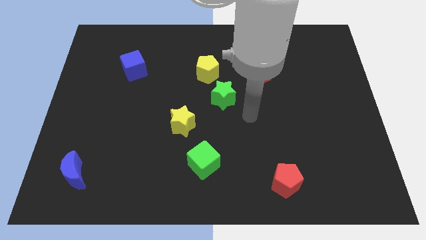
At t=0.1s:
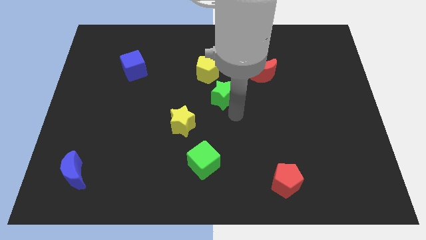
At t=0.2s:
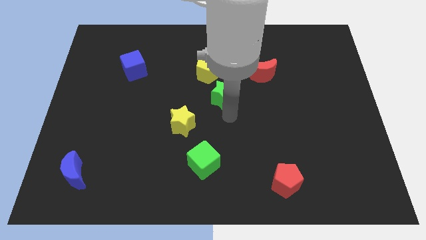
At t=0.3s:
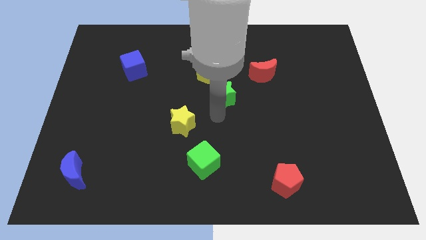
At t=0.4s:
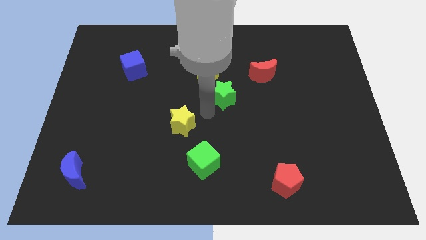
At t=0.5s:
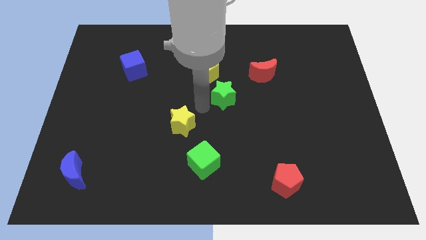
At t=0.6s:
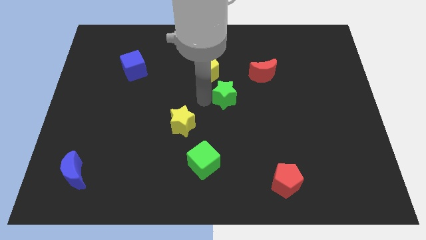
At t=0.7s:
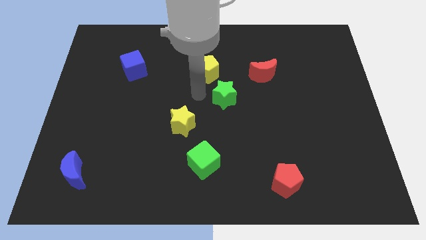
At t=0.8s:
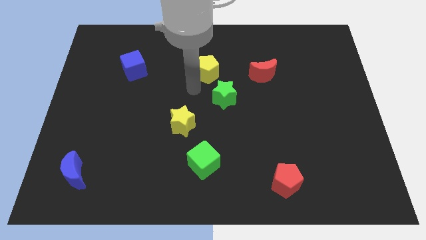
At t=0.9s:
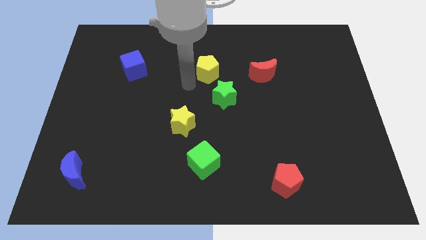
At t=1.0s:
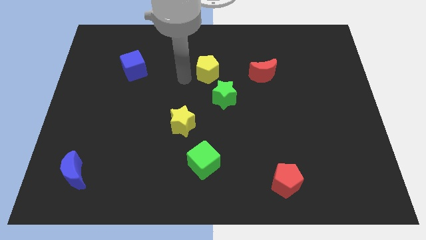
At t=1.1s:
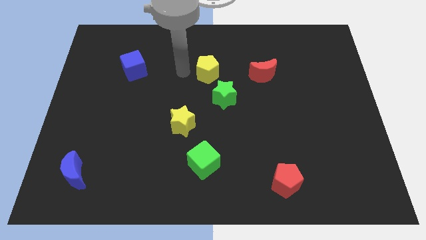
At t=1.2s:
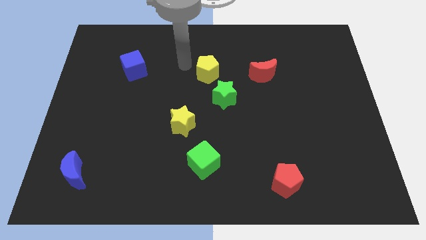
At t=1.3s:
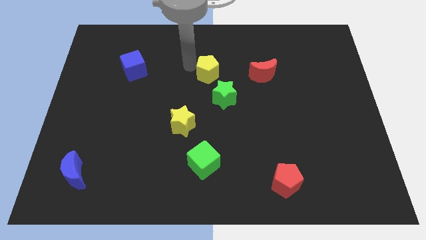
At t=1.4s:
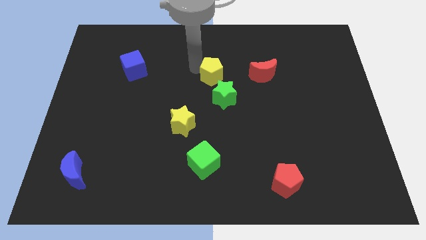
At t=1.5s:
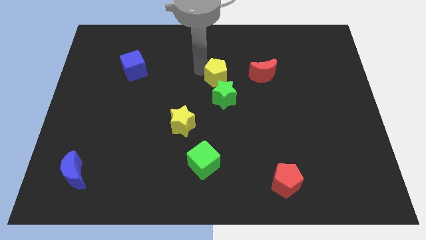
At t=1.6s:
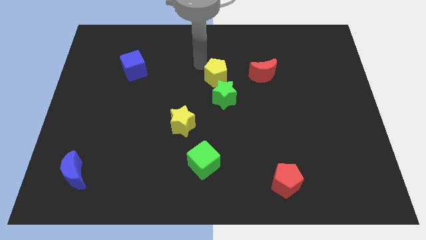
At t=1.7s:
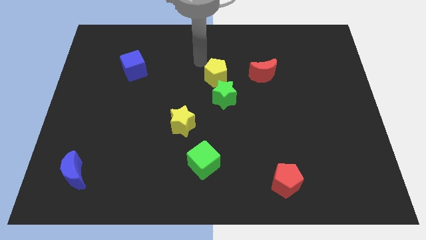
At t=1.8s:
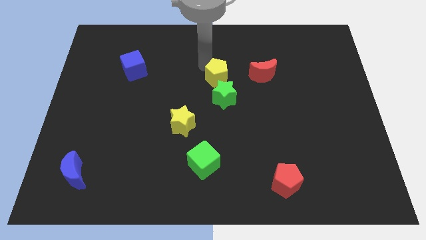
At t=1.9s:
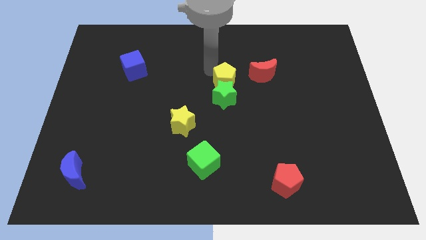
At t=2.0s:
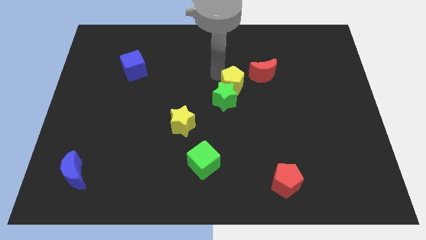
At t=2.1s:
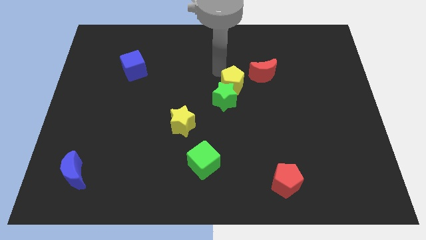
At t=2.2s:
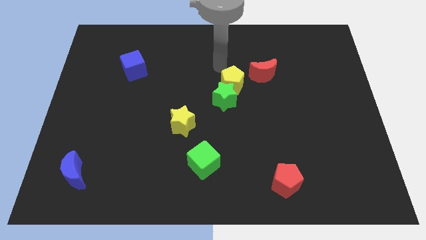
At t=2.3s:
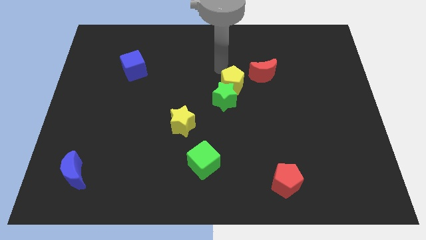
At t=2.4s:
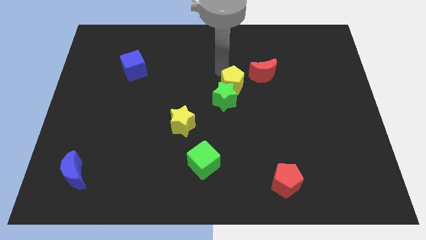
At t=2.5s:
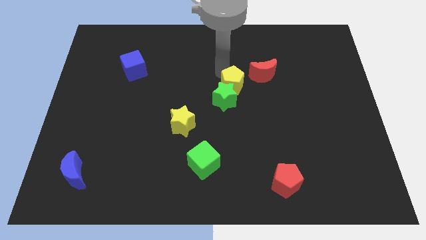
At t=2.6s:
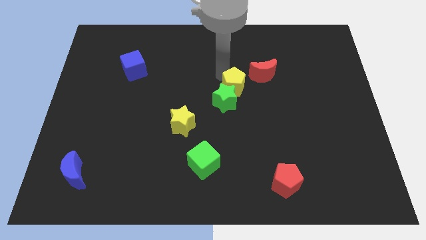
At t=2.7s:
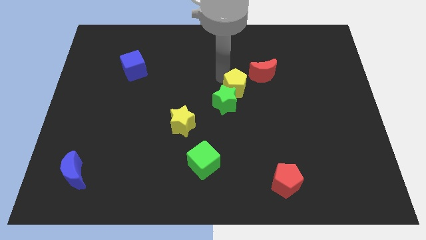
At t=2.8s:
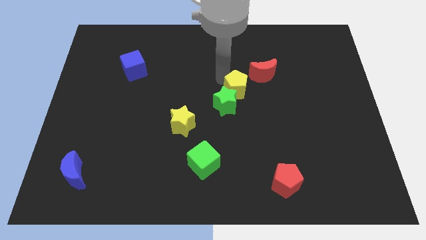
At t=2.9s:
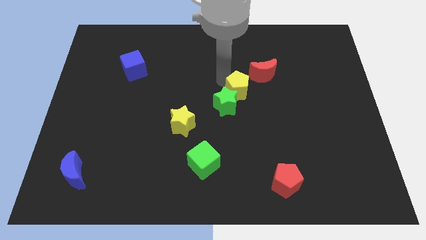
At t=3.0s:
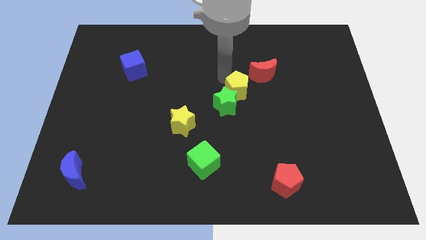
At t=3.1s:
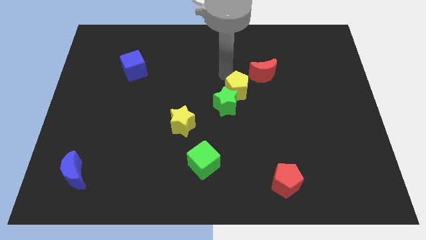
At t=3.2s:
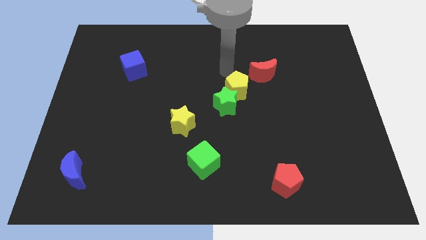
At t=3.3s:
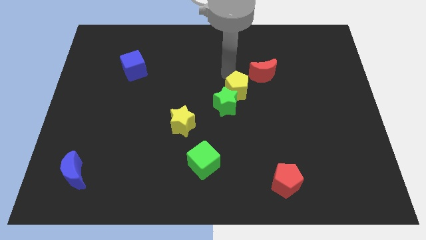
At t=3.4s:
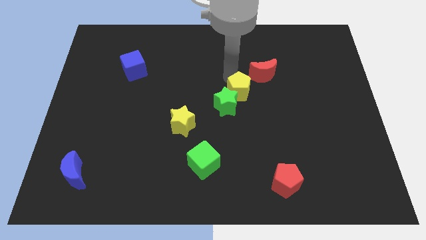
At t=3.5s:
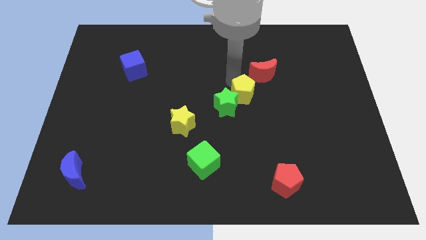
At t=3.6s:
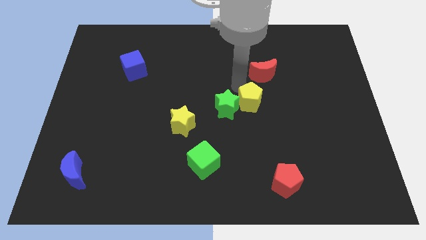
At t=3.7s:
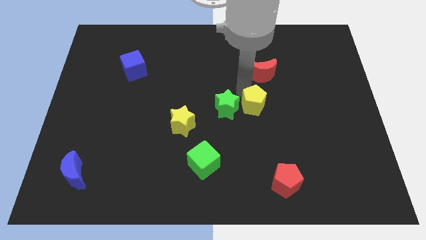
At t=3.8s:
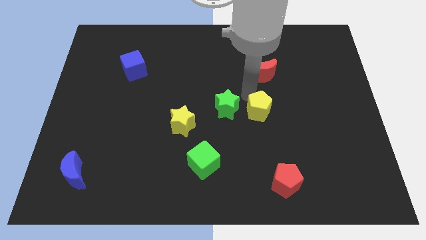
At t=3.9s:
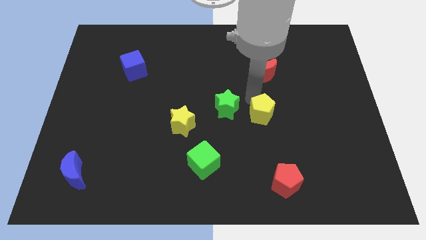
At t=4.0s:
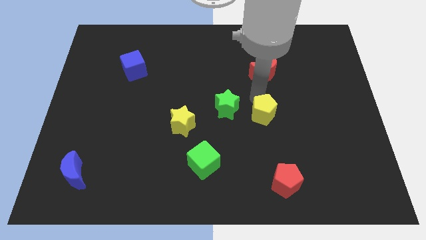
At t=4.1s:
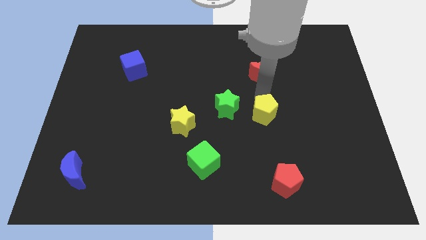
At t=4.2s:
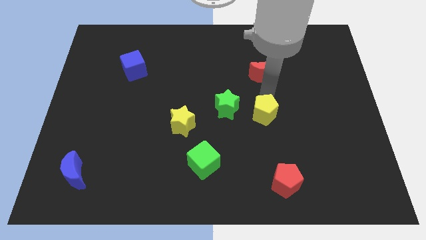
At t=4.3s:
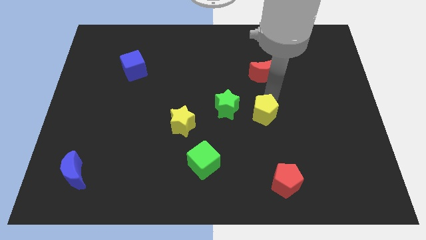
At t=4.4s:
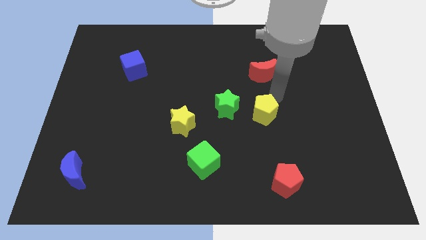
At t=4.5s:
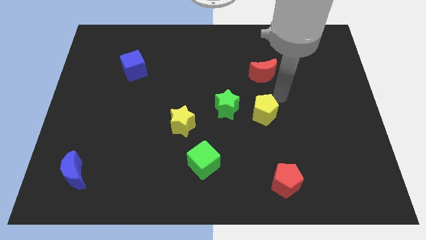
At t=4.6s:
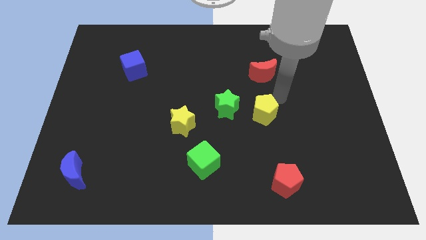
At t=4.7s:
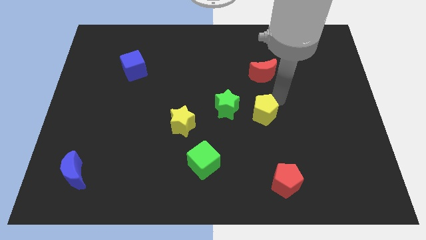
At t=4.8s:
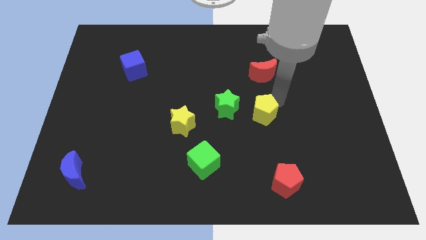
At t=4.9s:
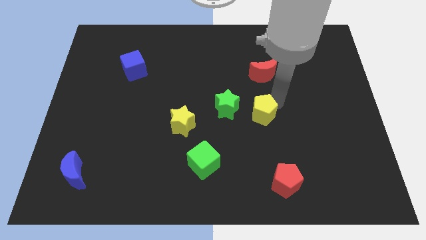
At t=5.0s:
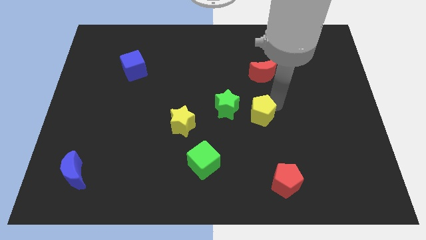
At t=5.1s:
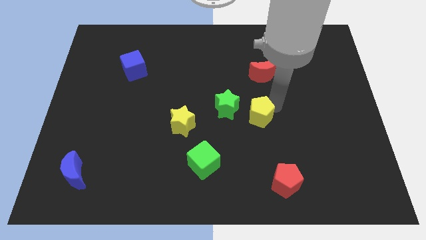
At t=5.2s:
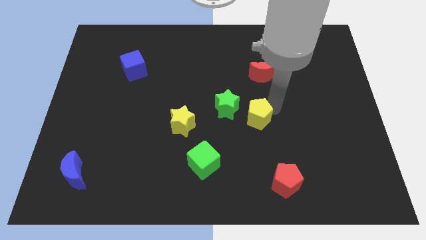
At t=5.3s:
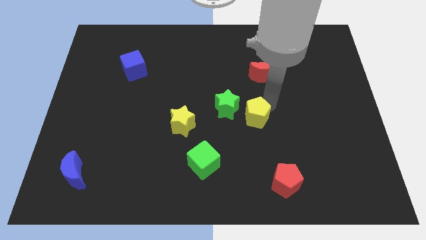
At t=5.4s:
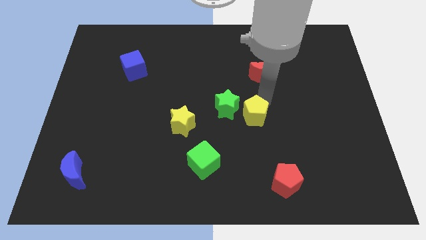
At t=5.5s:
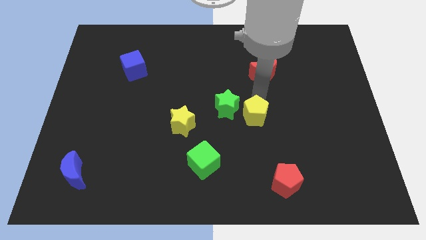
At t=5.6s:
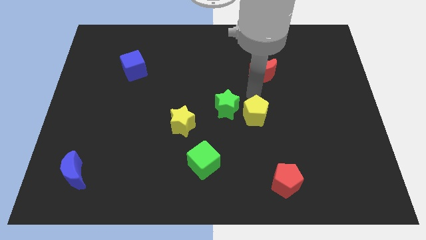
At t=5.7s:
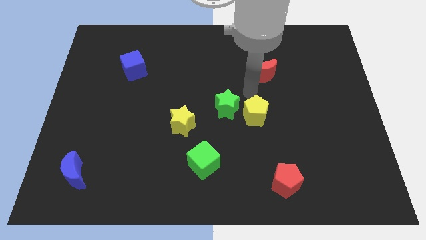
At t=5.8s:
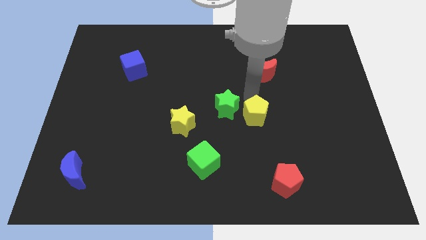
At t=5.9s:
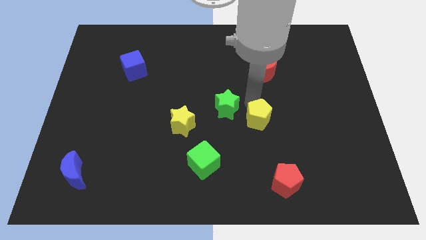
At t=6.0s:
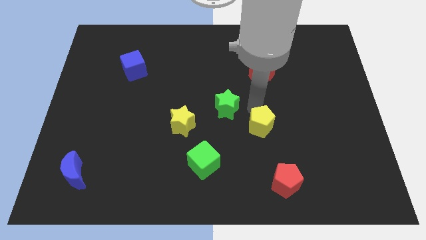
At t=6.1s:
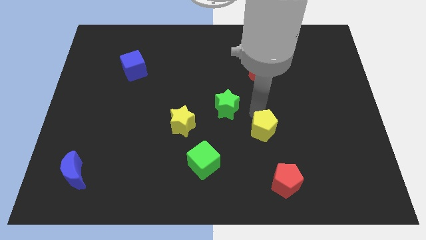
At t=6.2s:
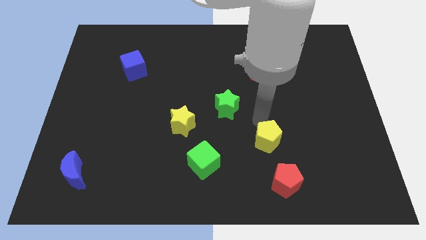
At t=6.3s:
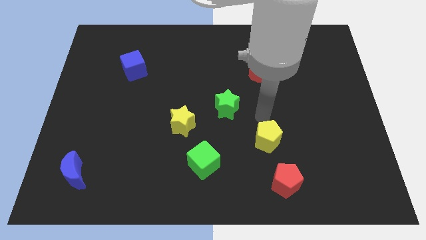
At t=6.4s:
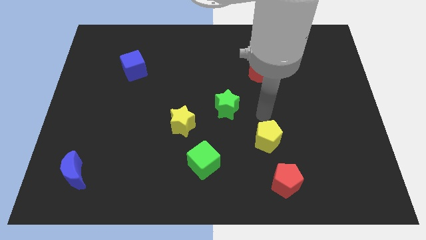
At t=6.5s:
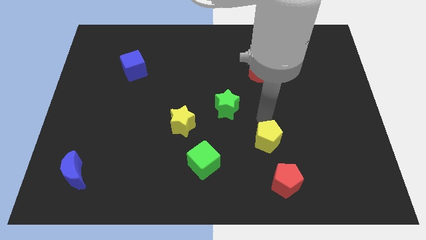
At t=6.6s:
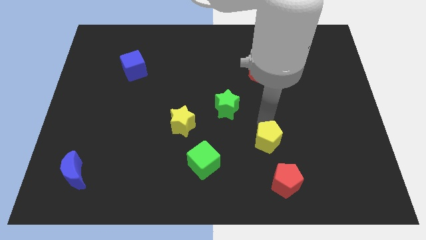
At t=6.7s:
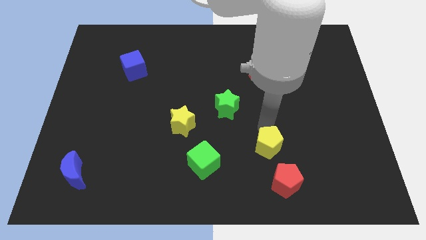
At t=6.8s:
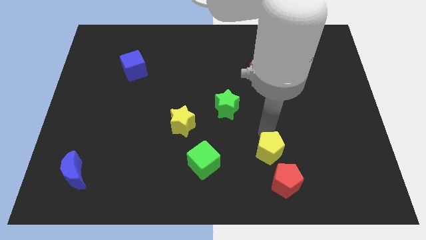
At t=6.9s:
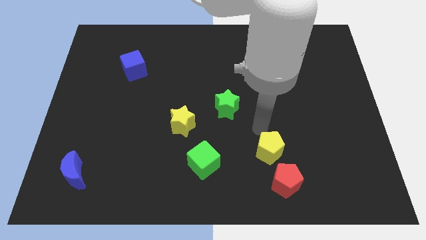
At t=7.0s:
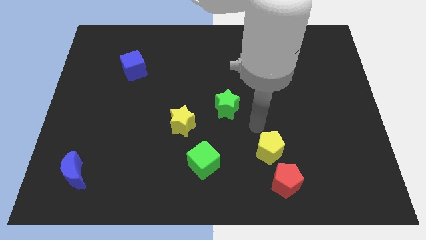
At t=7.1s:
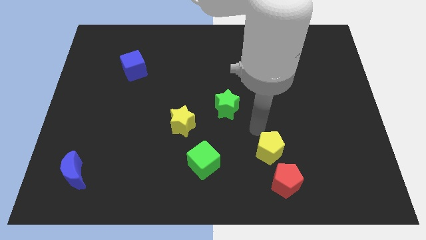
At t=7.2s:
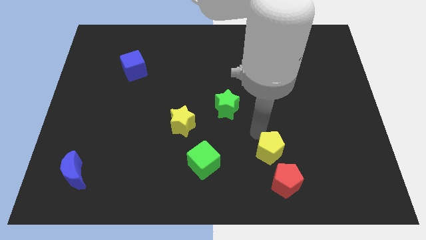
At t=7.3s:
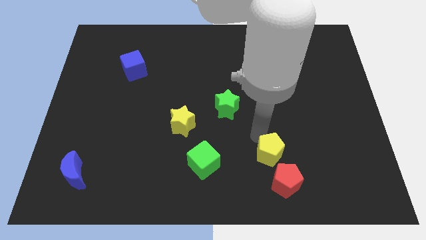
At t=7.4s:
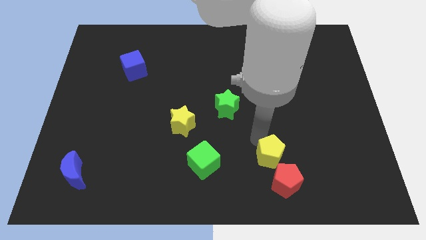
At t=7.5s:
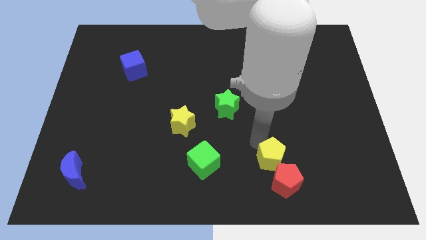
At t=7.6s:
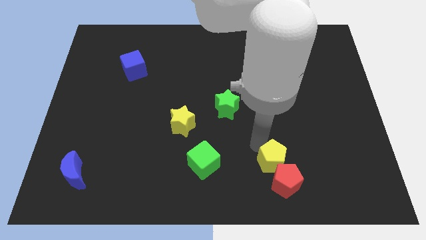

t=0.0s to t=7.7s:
move the yellow pentagon close to the red pentagon

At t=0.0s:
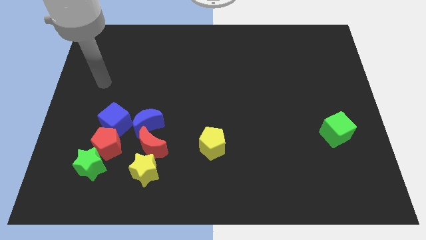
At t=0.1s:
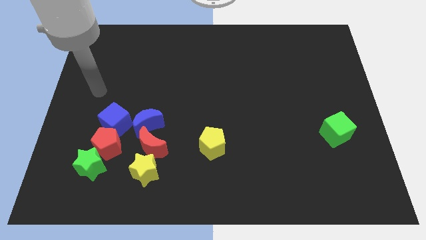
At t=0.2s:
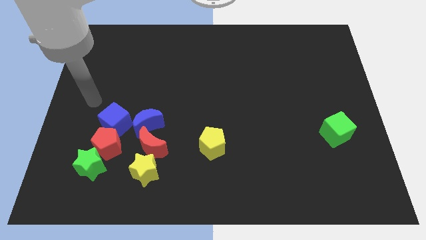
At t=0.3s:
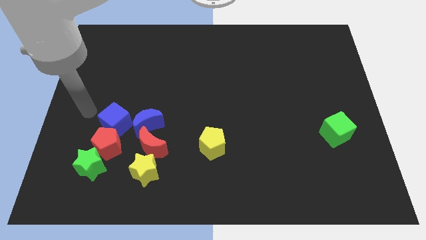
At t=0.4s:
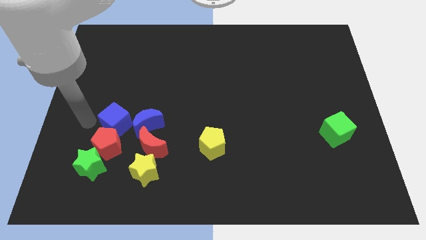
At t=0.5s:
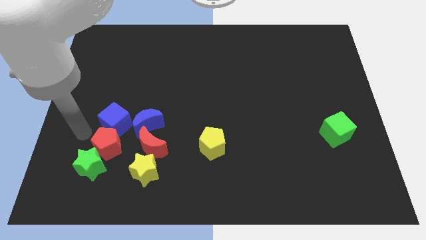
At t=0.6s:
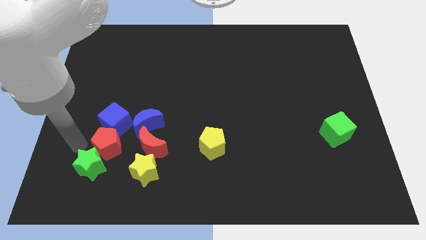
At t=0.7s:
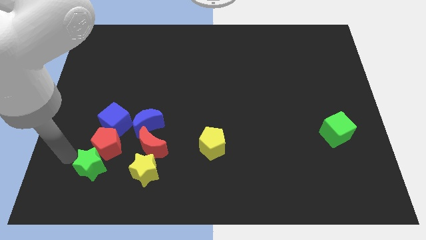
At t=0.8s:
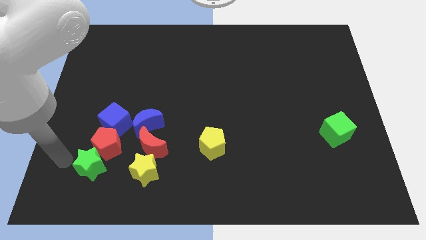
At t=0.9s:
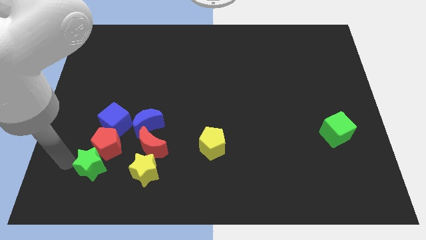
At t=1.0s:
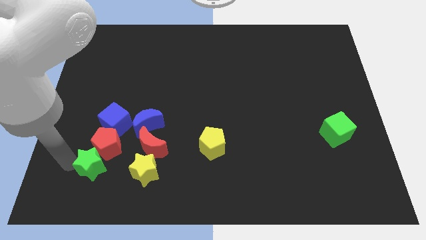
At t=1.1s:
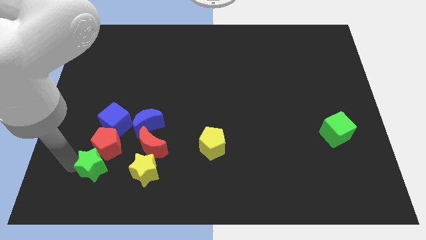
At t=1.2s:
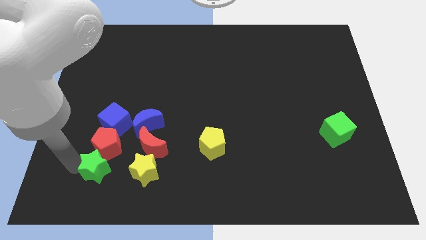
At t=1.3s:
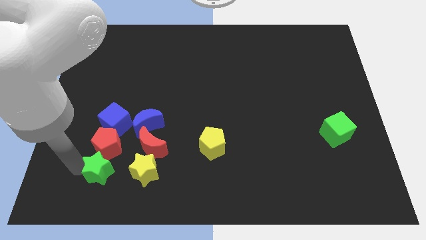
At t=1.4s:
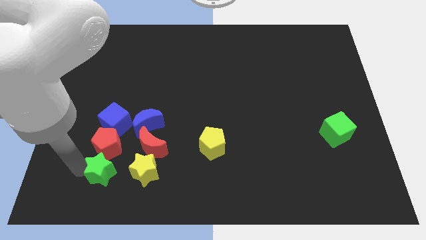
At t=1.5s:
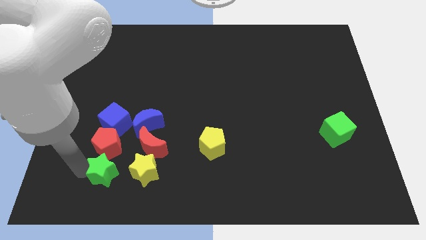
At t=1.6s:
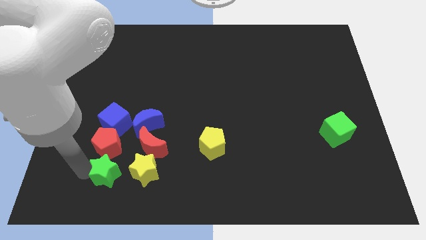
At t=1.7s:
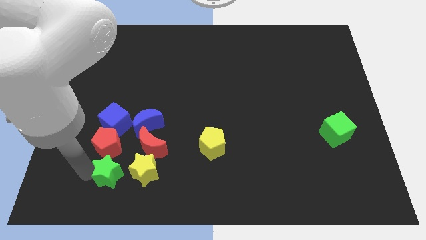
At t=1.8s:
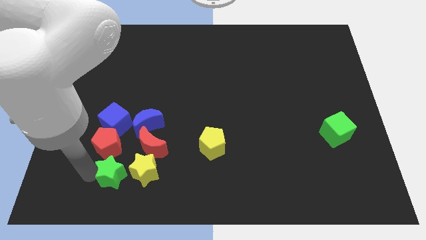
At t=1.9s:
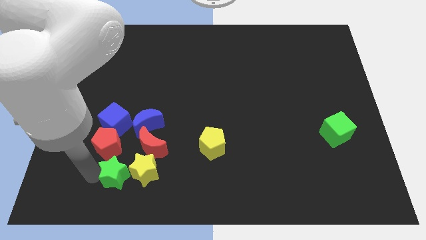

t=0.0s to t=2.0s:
push the green star to the yellow star
